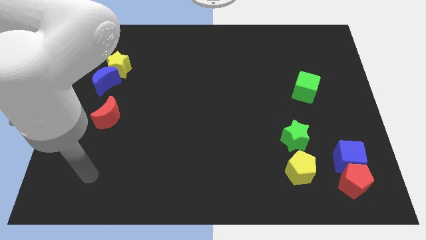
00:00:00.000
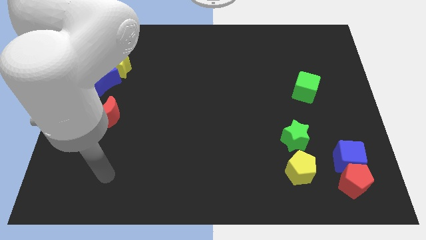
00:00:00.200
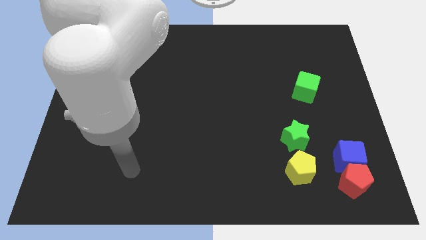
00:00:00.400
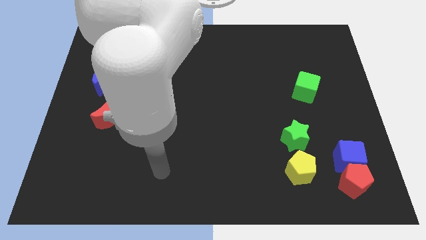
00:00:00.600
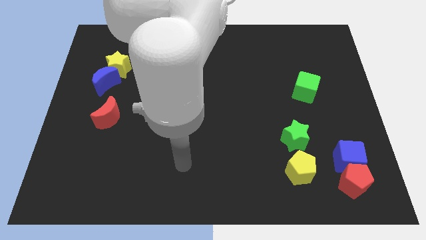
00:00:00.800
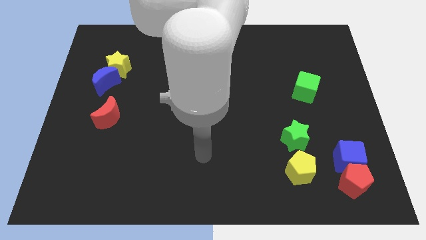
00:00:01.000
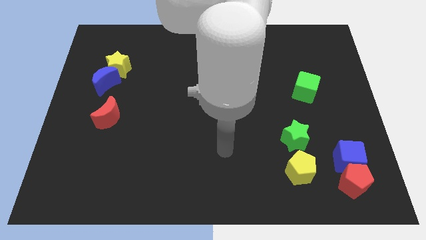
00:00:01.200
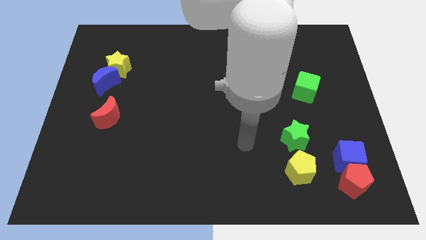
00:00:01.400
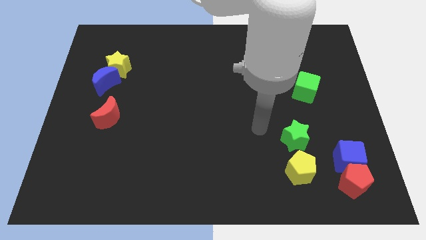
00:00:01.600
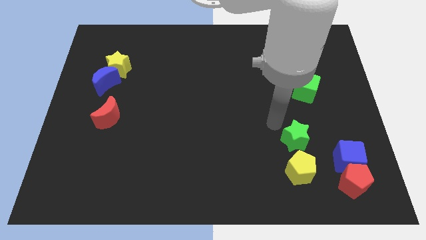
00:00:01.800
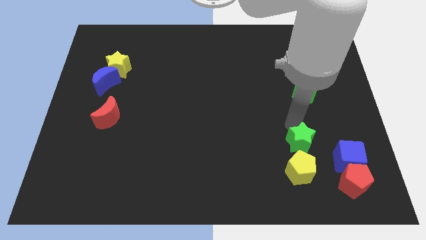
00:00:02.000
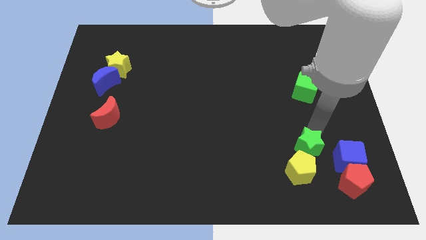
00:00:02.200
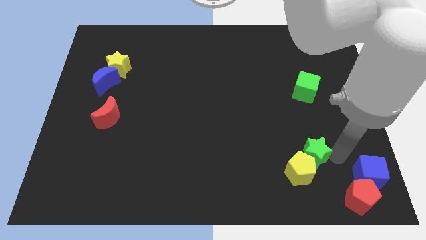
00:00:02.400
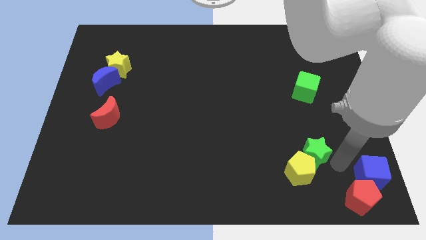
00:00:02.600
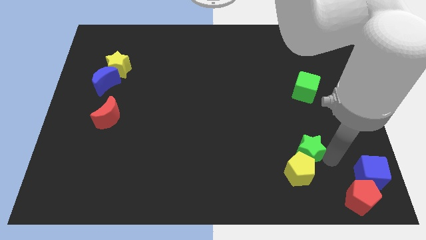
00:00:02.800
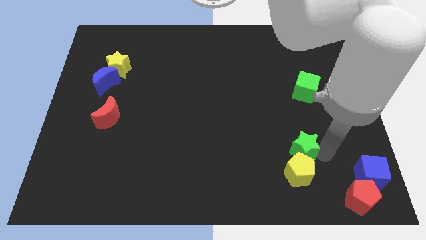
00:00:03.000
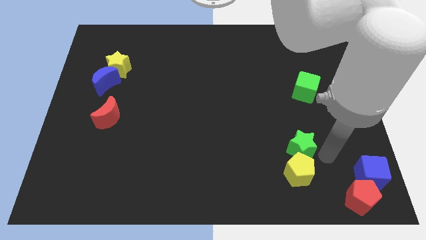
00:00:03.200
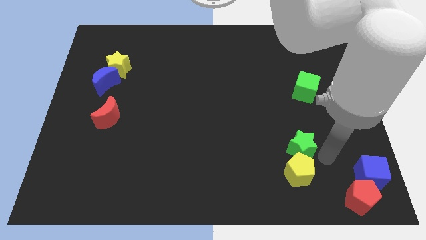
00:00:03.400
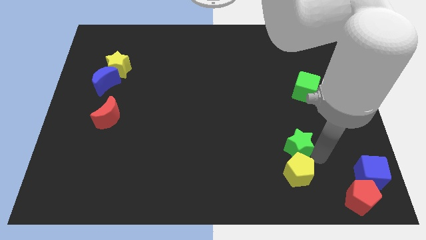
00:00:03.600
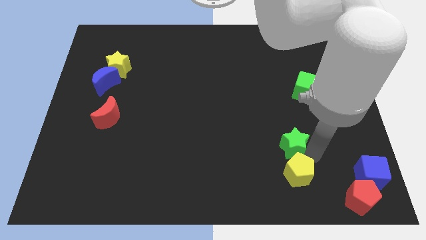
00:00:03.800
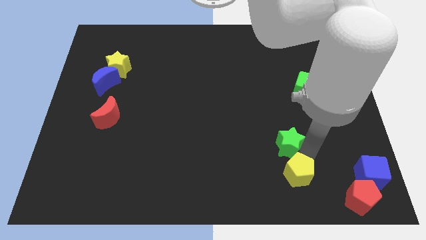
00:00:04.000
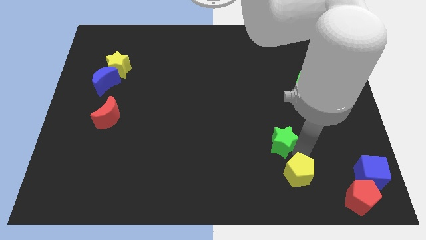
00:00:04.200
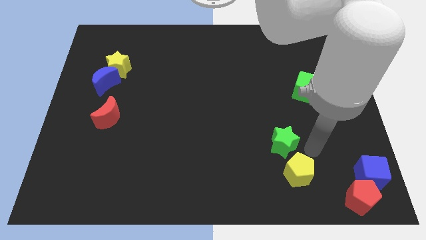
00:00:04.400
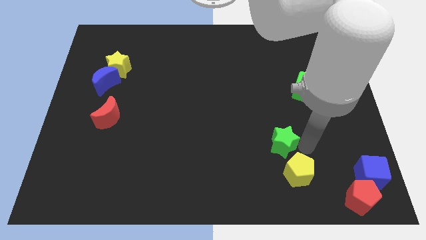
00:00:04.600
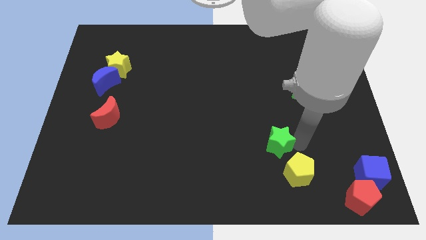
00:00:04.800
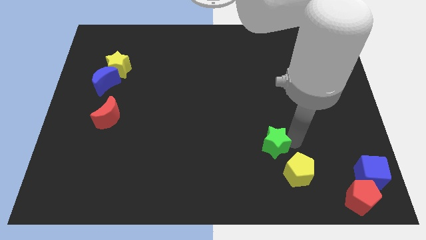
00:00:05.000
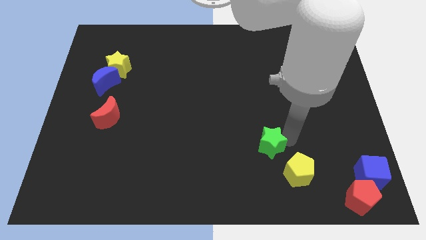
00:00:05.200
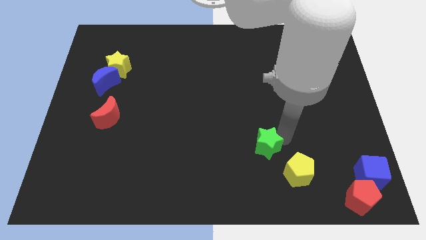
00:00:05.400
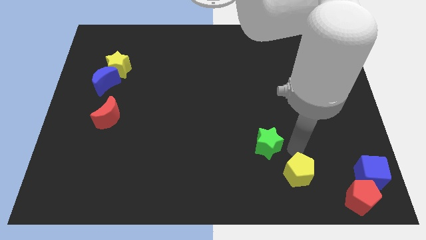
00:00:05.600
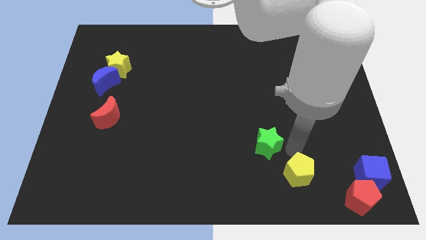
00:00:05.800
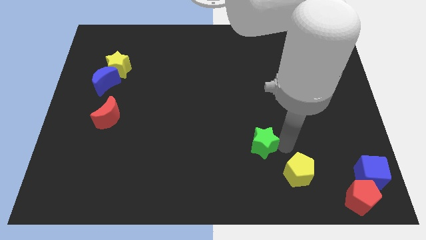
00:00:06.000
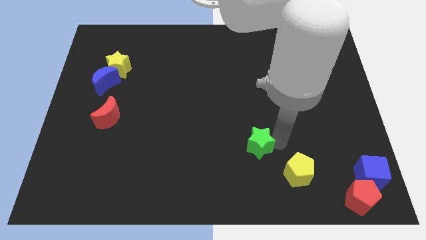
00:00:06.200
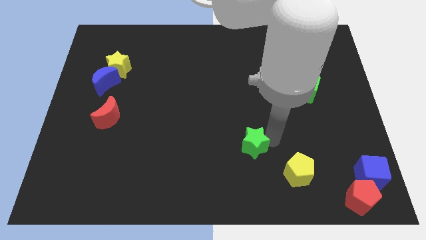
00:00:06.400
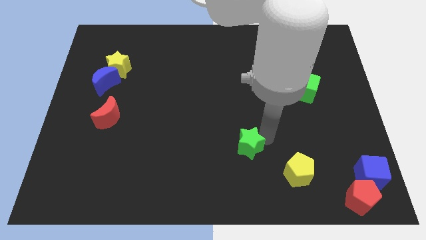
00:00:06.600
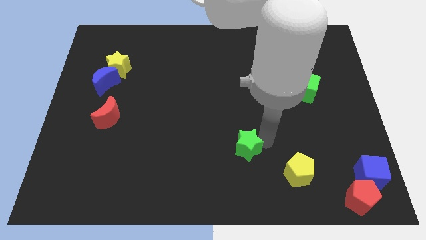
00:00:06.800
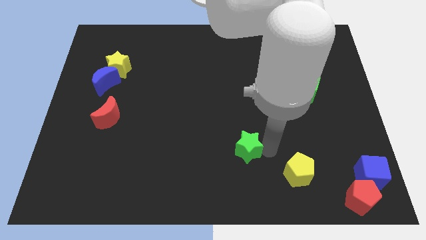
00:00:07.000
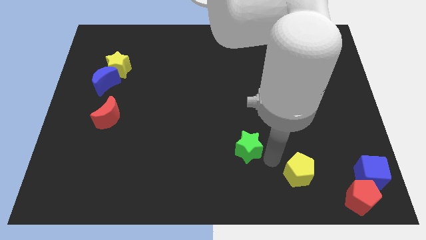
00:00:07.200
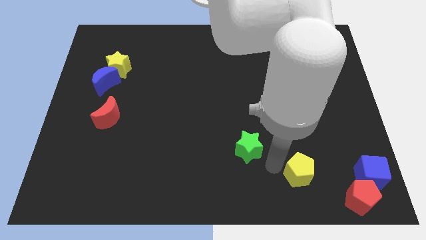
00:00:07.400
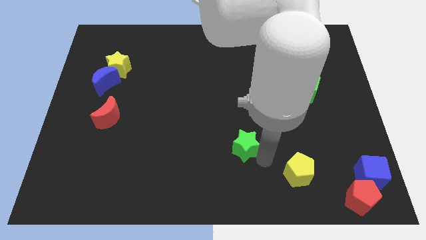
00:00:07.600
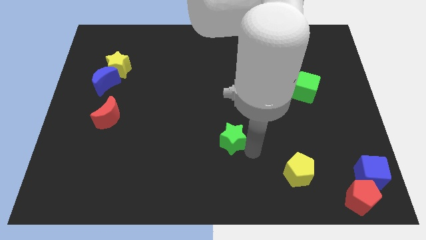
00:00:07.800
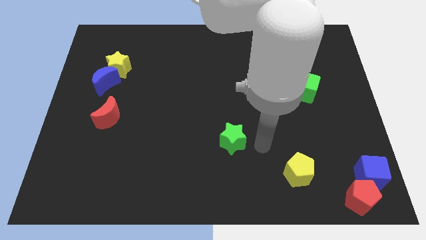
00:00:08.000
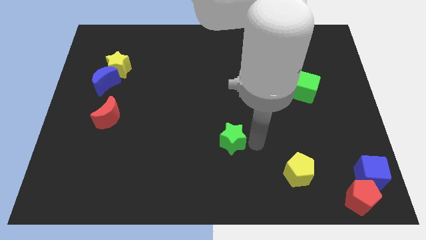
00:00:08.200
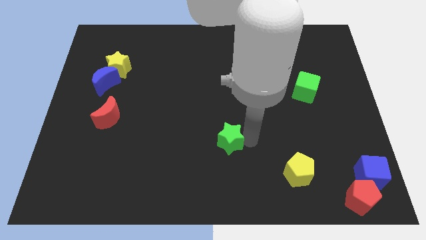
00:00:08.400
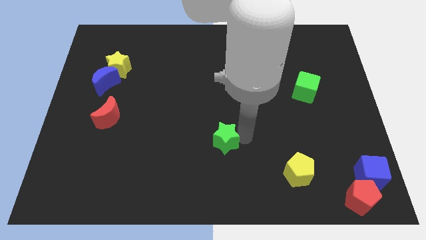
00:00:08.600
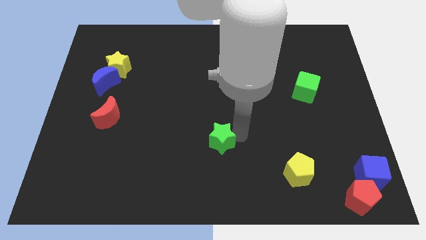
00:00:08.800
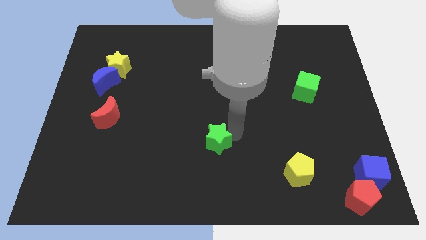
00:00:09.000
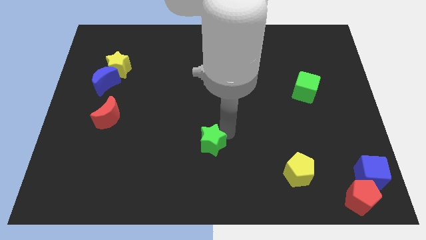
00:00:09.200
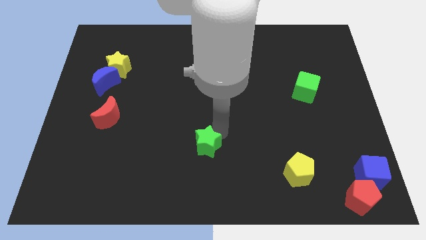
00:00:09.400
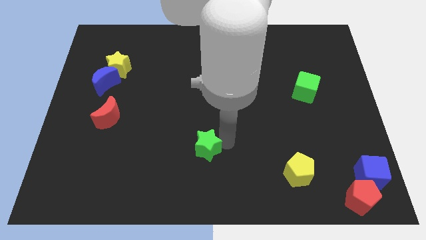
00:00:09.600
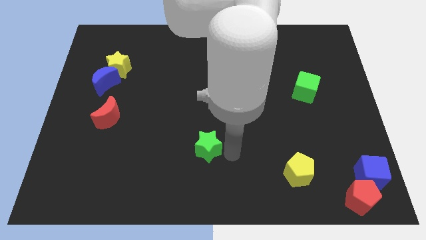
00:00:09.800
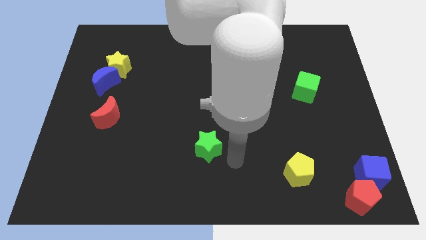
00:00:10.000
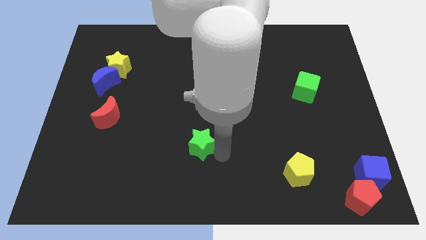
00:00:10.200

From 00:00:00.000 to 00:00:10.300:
slide the green star left

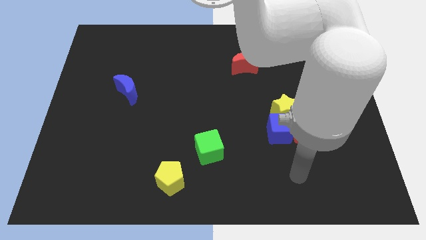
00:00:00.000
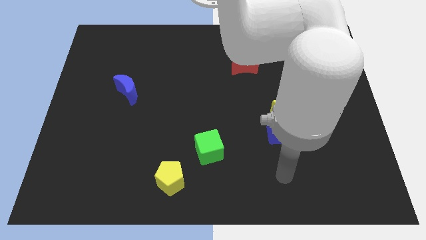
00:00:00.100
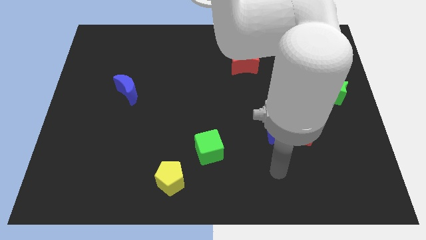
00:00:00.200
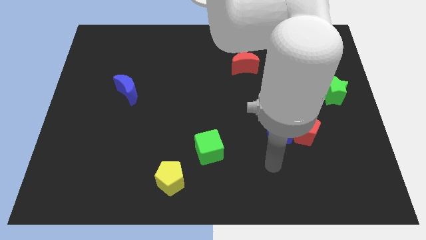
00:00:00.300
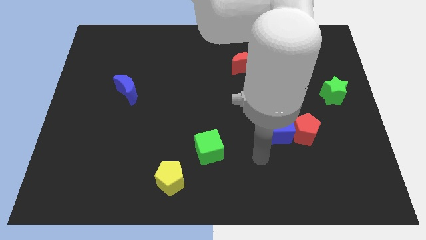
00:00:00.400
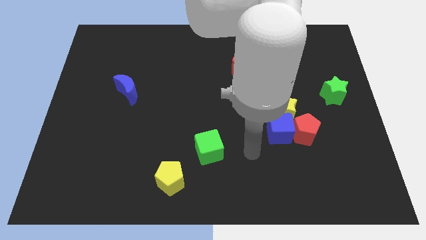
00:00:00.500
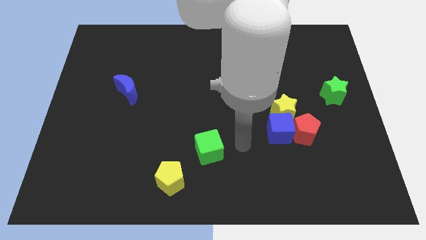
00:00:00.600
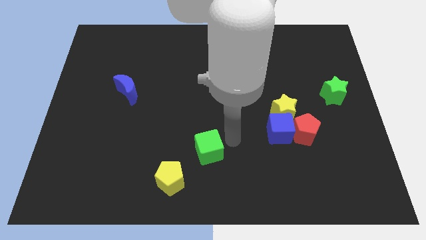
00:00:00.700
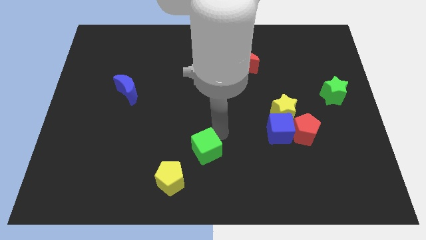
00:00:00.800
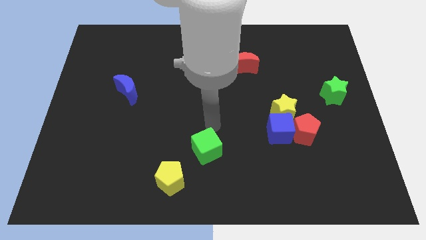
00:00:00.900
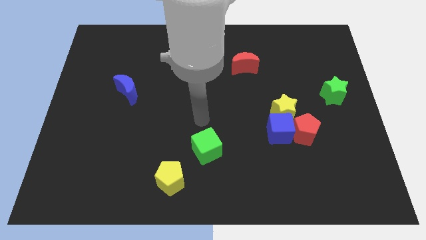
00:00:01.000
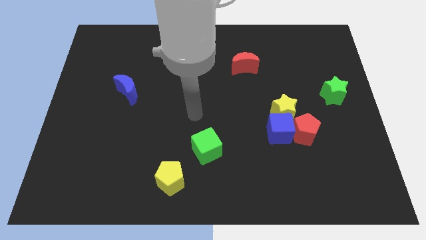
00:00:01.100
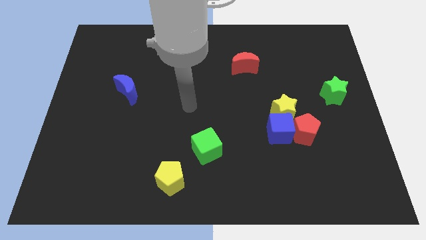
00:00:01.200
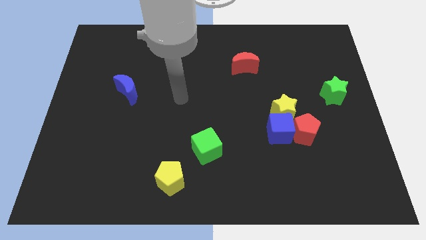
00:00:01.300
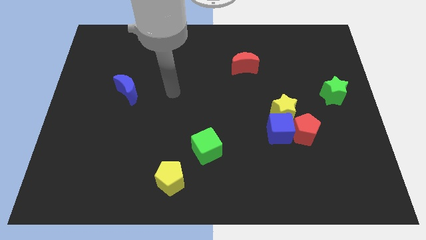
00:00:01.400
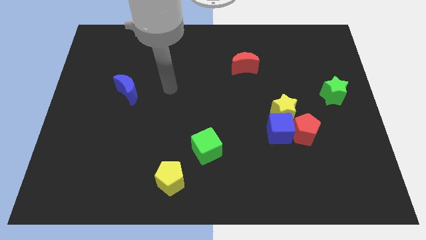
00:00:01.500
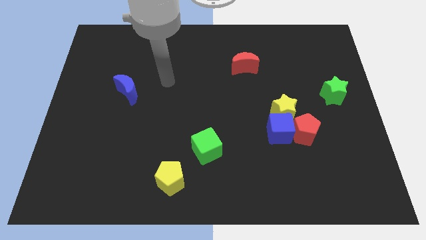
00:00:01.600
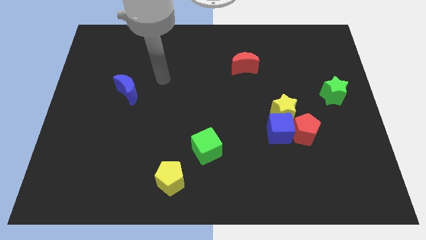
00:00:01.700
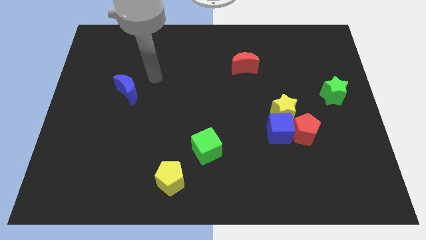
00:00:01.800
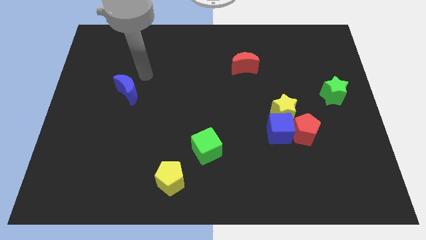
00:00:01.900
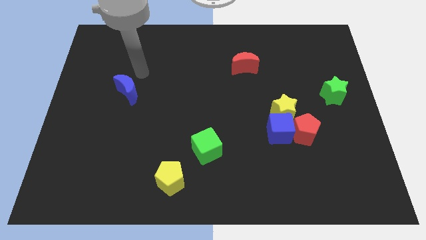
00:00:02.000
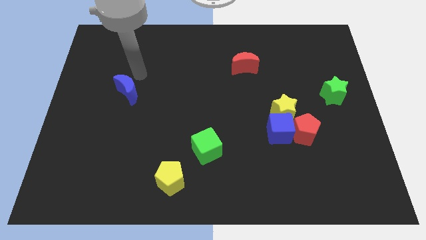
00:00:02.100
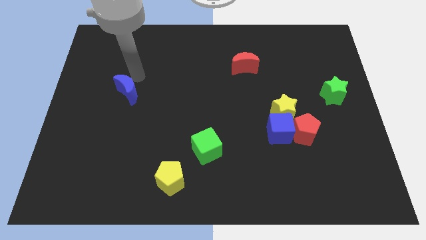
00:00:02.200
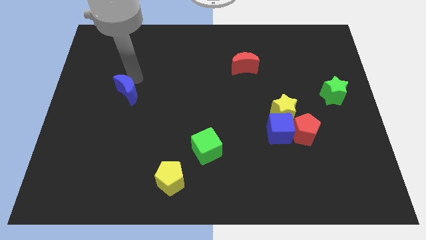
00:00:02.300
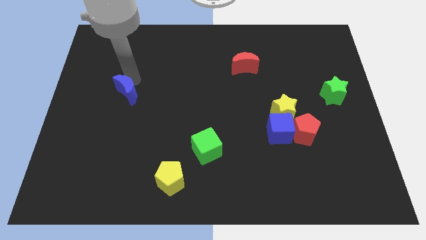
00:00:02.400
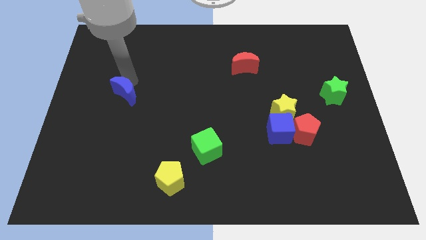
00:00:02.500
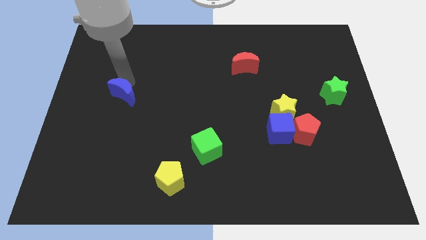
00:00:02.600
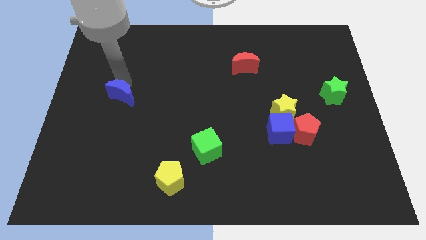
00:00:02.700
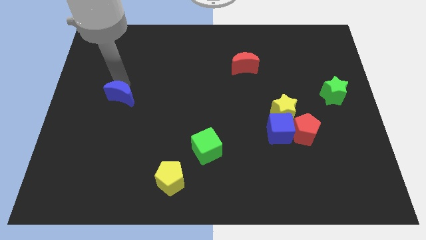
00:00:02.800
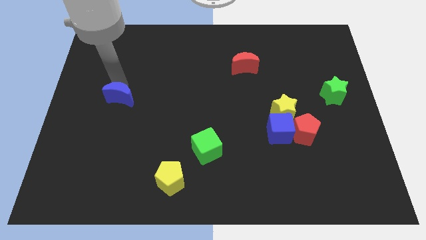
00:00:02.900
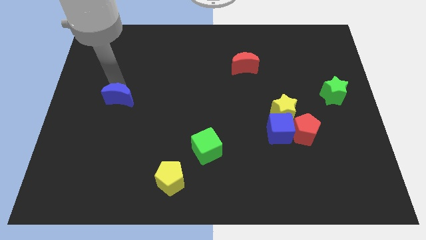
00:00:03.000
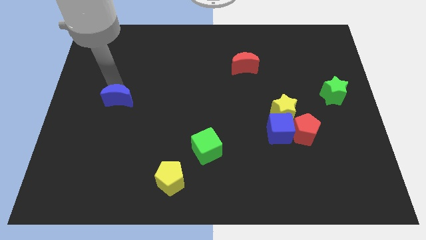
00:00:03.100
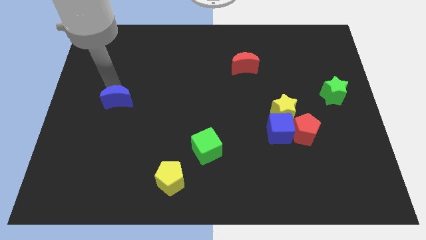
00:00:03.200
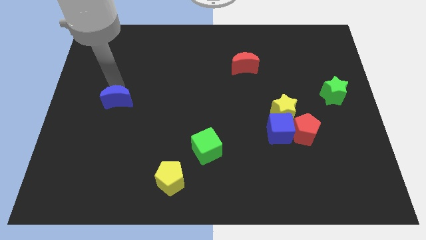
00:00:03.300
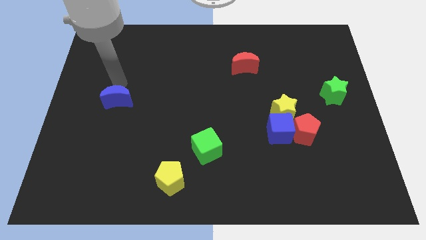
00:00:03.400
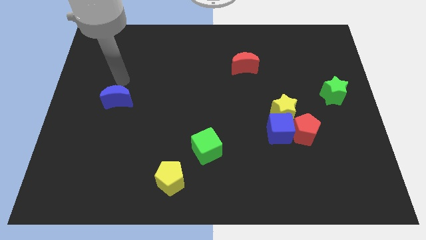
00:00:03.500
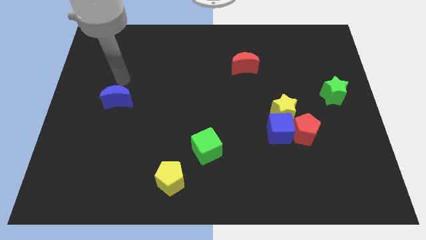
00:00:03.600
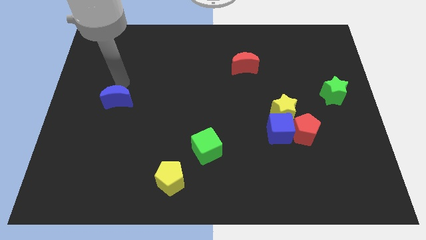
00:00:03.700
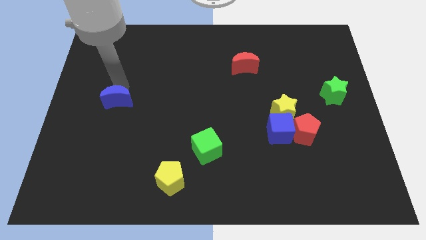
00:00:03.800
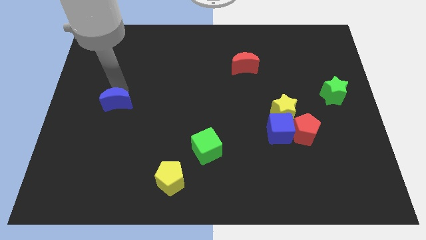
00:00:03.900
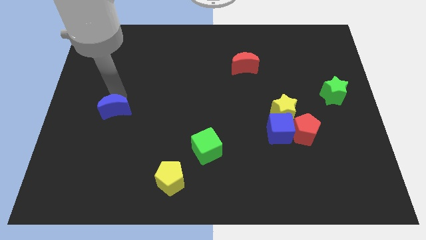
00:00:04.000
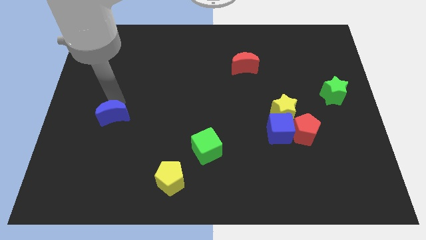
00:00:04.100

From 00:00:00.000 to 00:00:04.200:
slightly push the blue moon down
